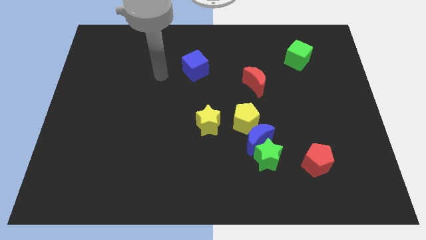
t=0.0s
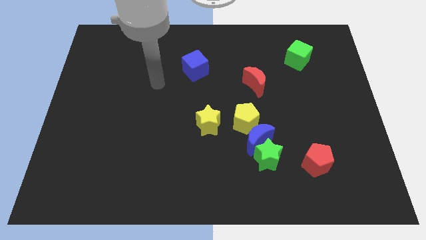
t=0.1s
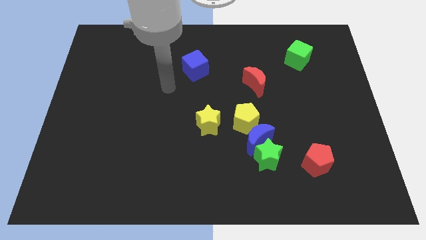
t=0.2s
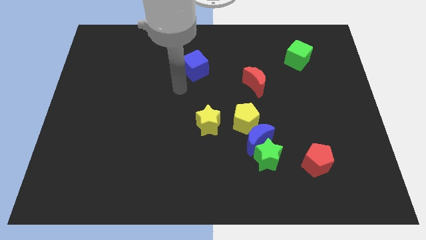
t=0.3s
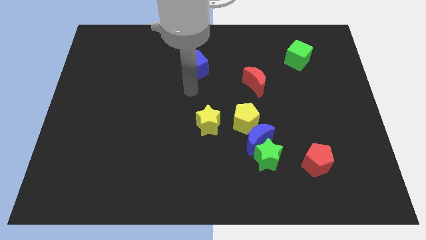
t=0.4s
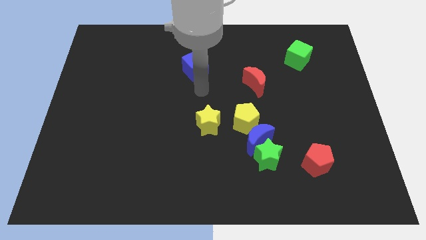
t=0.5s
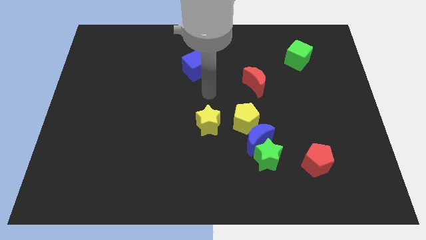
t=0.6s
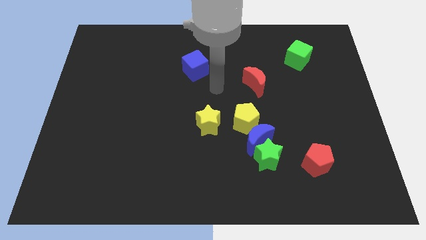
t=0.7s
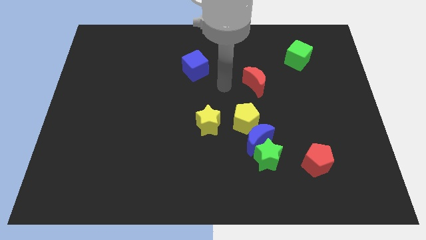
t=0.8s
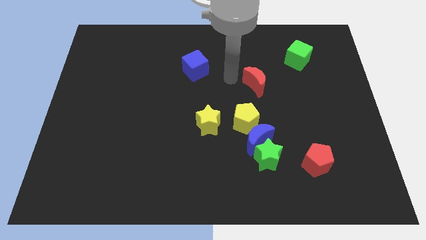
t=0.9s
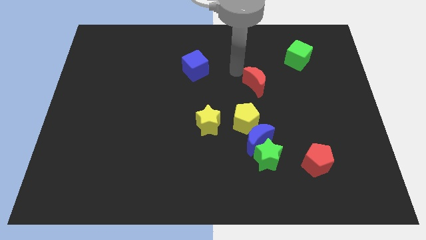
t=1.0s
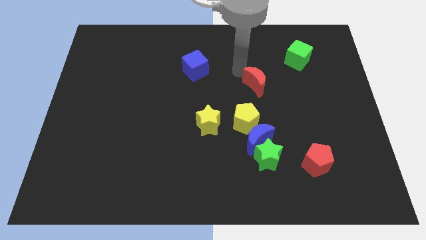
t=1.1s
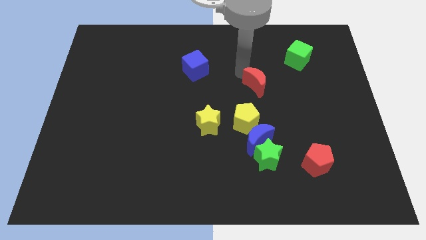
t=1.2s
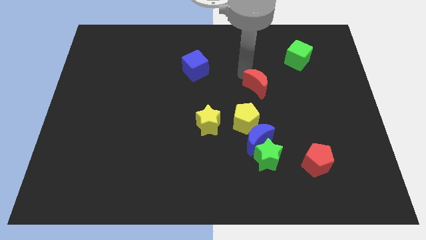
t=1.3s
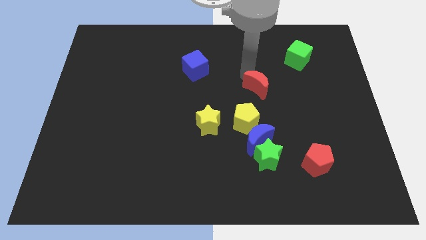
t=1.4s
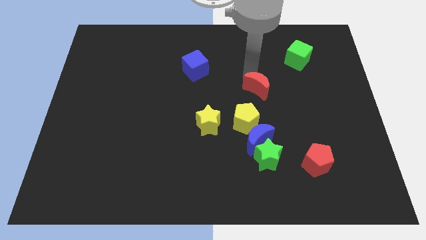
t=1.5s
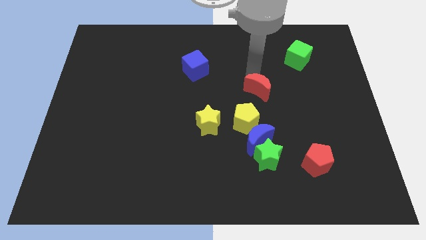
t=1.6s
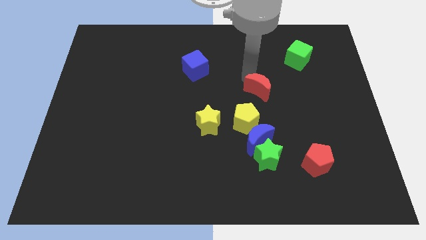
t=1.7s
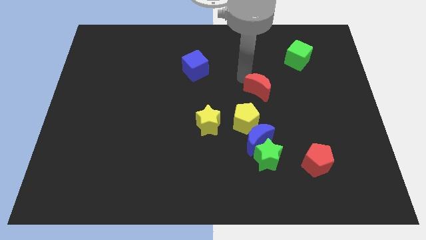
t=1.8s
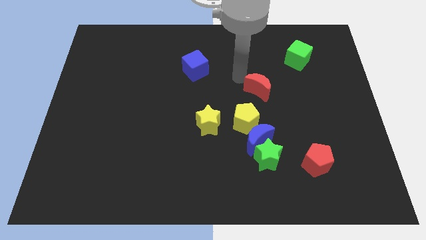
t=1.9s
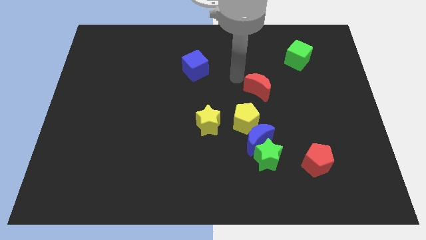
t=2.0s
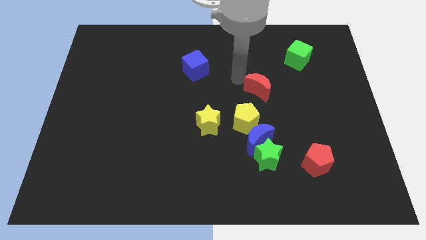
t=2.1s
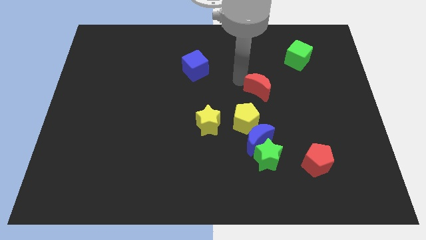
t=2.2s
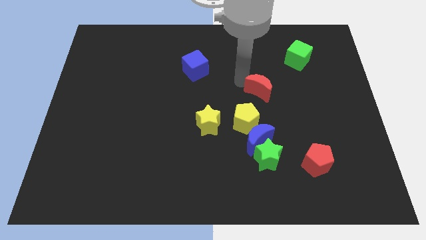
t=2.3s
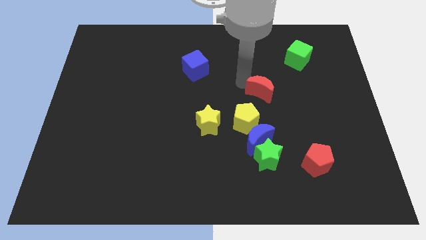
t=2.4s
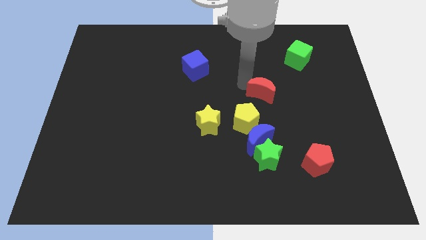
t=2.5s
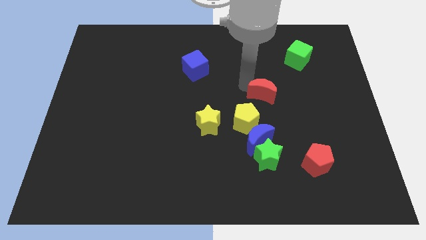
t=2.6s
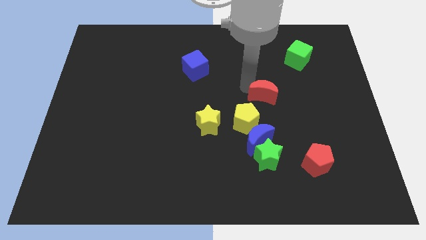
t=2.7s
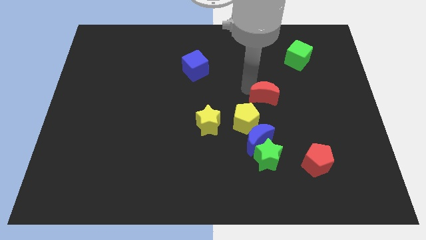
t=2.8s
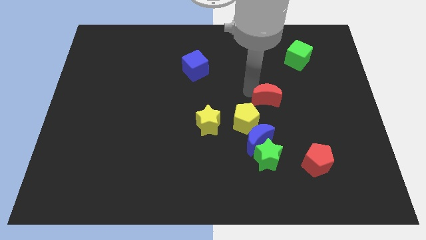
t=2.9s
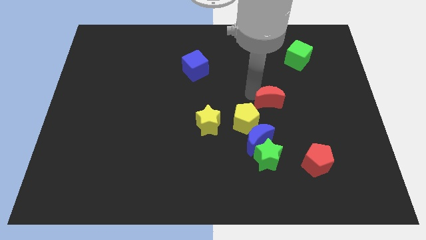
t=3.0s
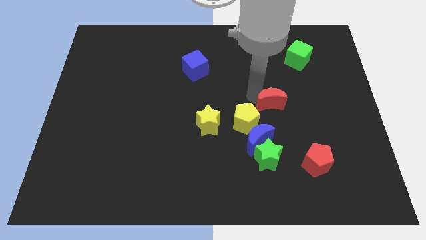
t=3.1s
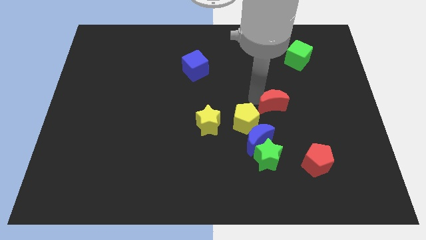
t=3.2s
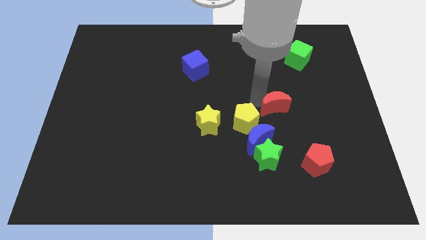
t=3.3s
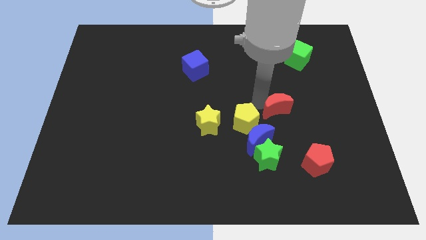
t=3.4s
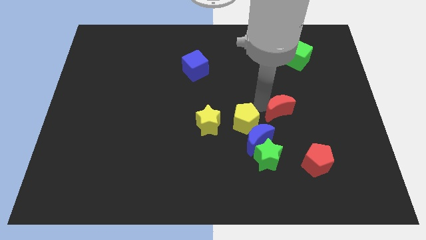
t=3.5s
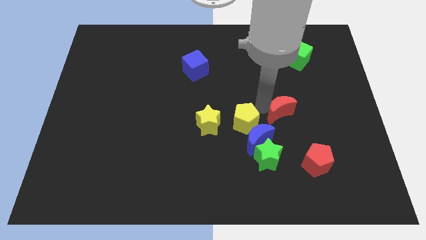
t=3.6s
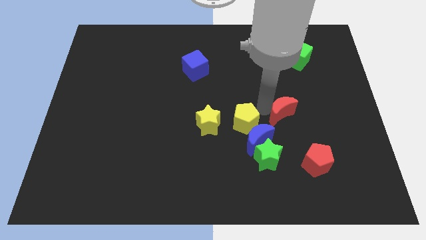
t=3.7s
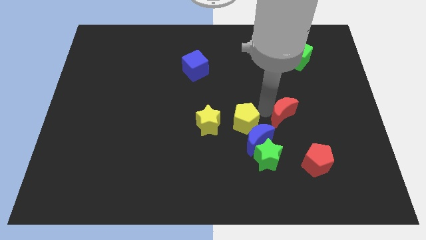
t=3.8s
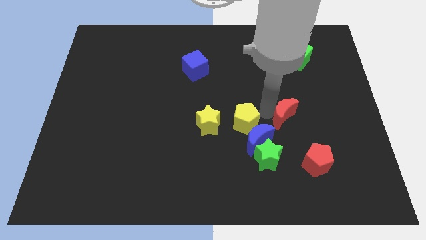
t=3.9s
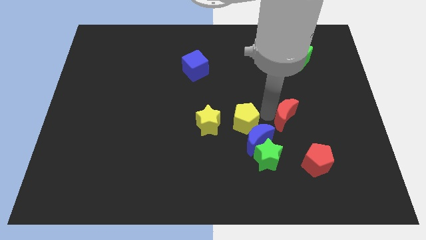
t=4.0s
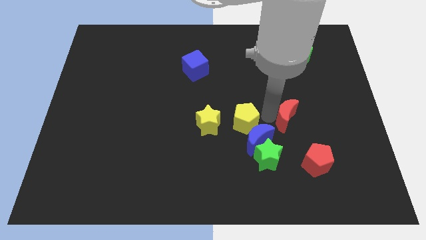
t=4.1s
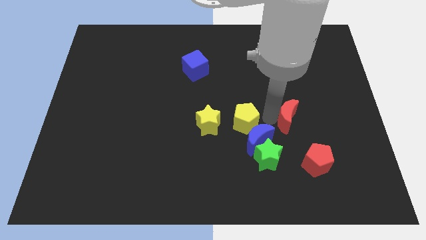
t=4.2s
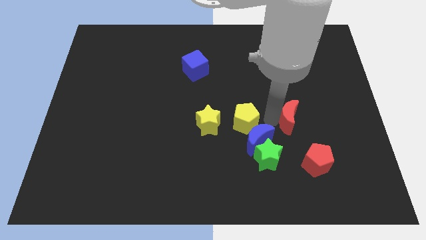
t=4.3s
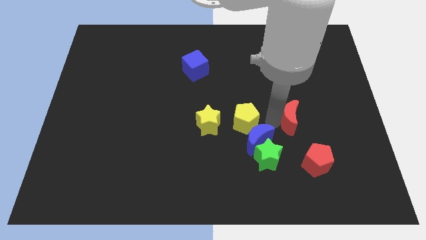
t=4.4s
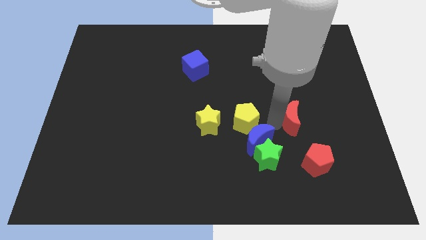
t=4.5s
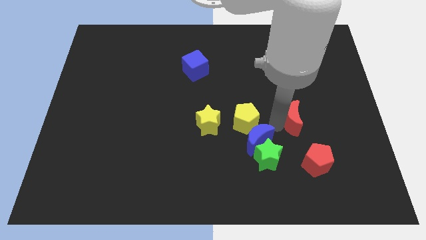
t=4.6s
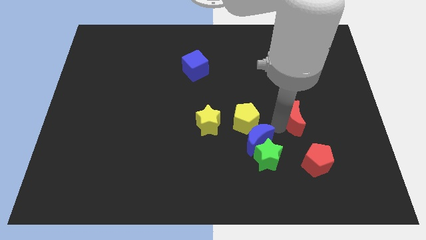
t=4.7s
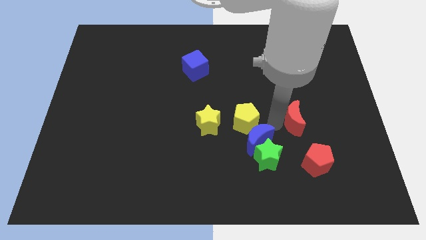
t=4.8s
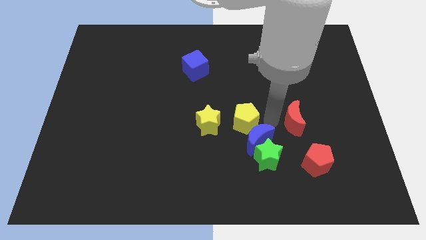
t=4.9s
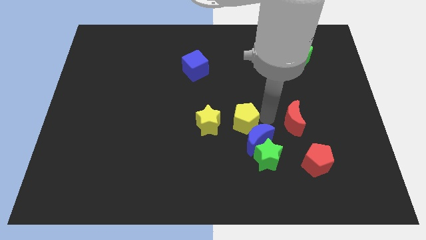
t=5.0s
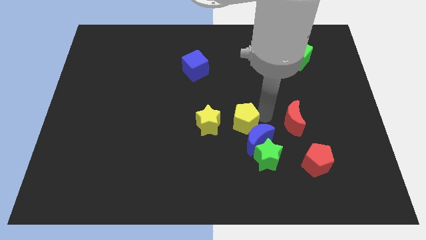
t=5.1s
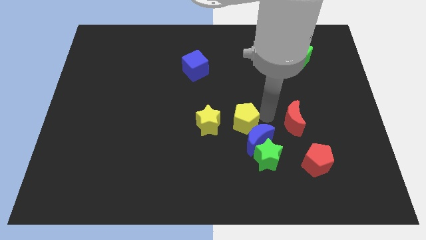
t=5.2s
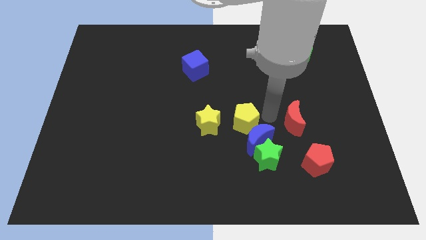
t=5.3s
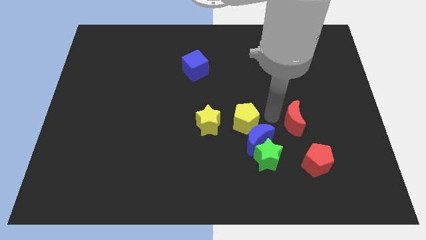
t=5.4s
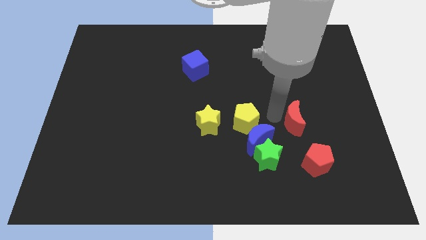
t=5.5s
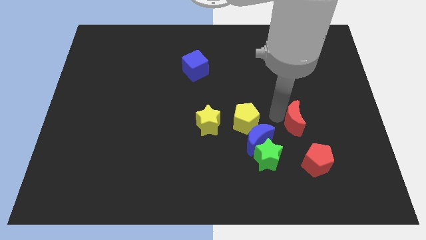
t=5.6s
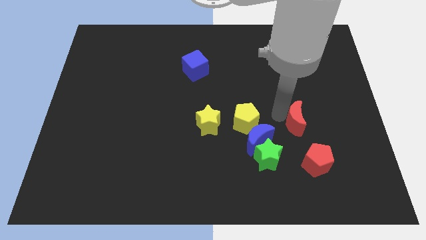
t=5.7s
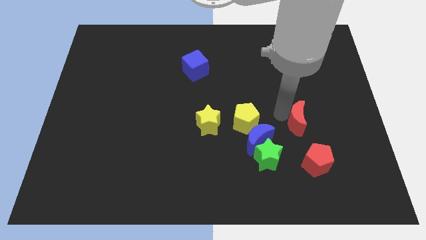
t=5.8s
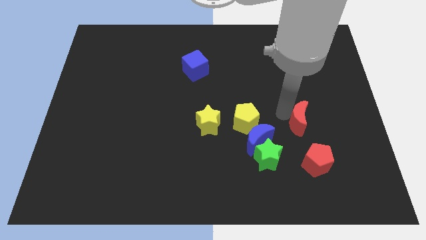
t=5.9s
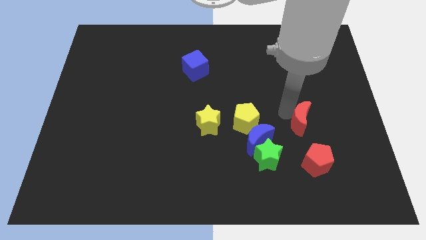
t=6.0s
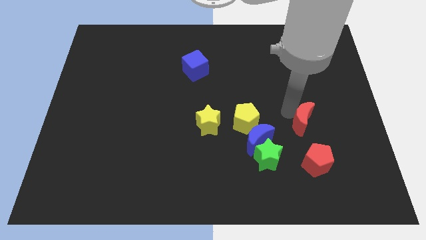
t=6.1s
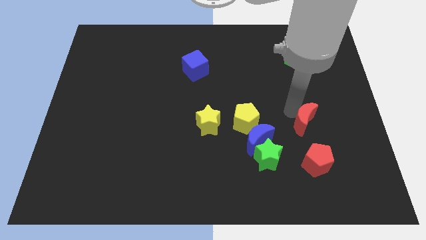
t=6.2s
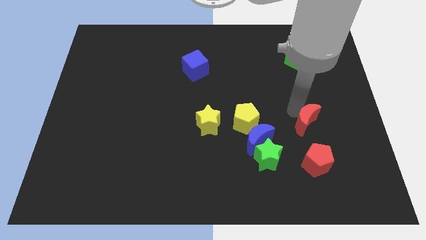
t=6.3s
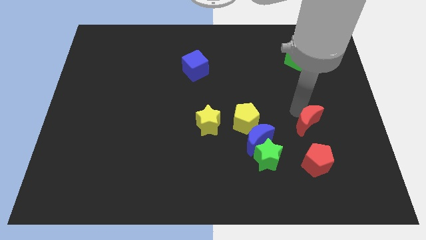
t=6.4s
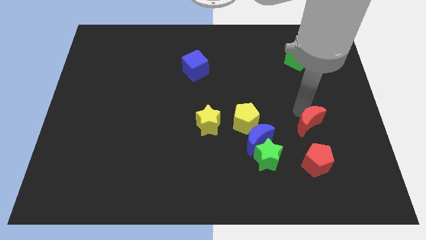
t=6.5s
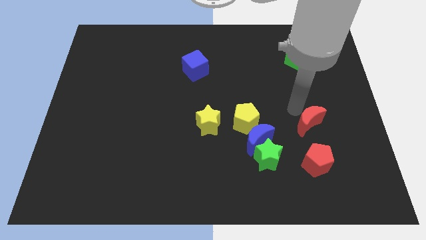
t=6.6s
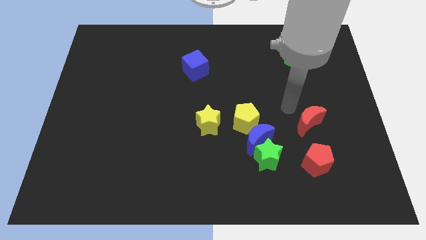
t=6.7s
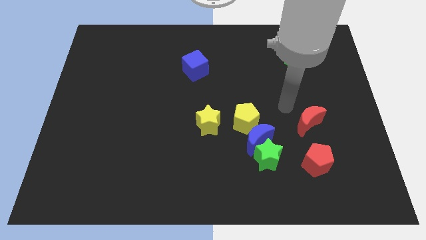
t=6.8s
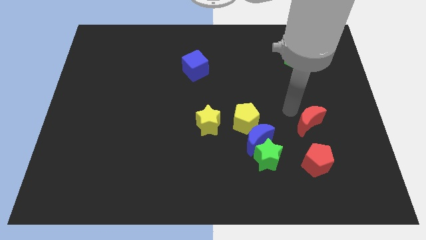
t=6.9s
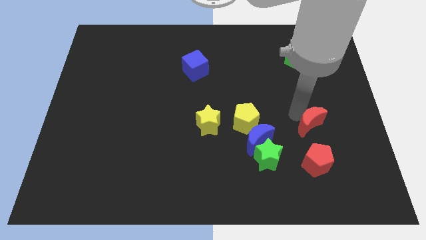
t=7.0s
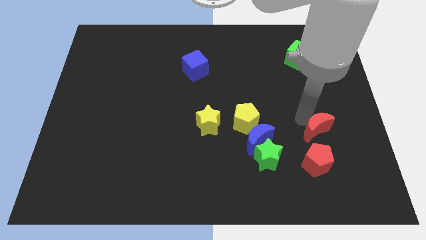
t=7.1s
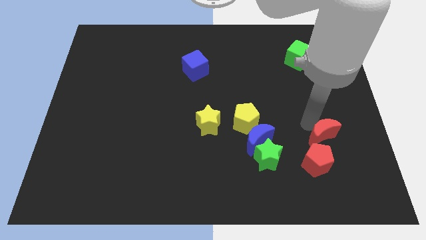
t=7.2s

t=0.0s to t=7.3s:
slide the red moon to the top right of the red pentagon
